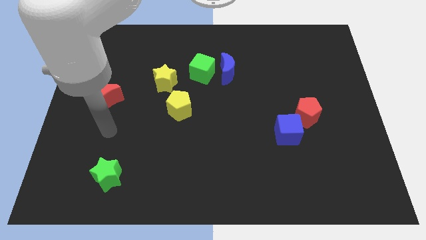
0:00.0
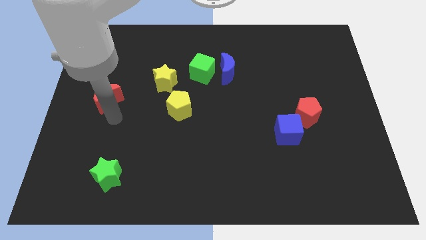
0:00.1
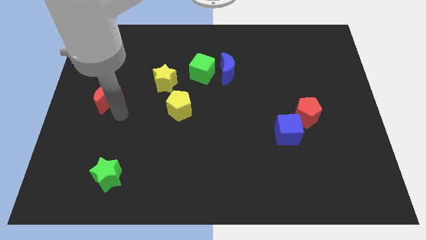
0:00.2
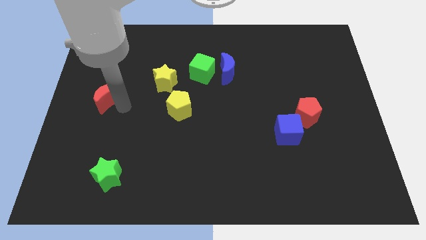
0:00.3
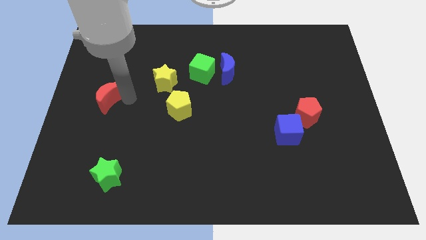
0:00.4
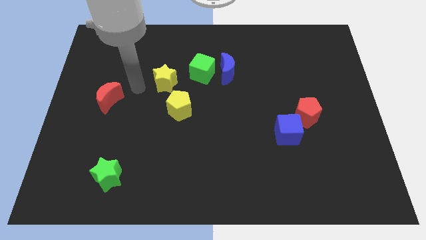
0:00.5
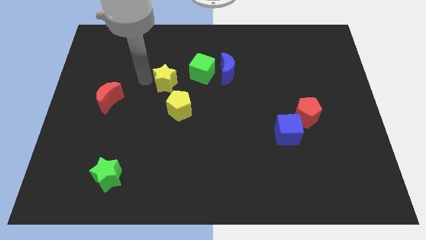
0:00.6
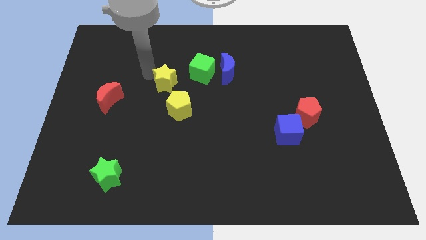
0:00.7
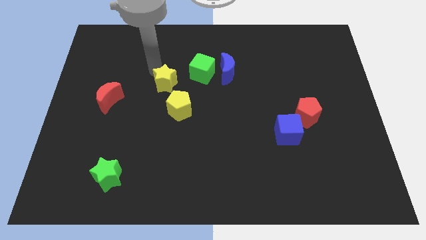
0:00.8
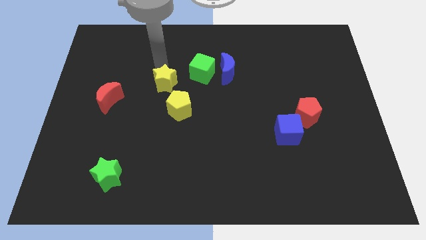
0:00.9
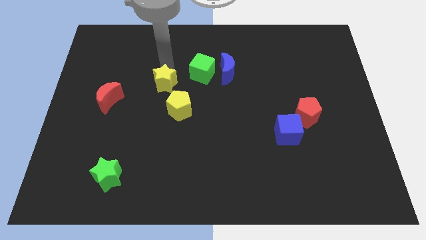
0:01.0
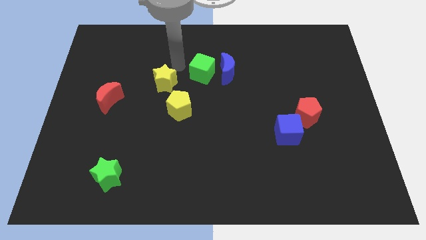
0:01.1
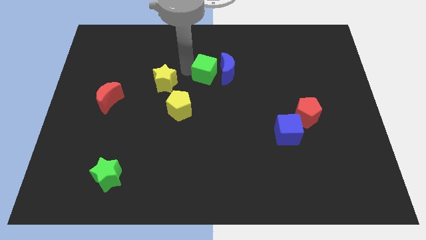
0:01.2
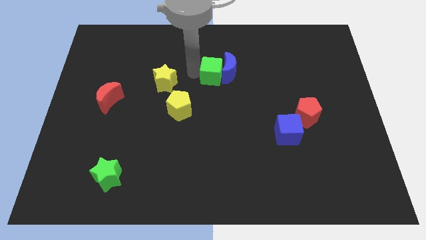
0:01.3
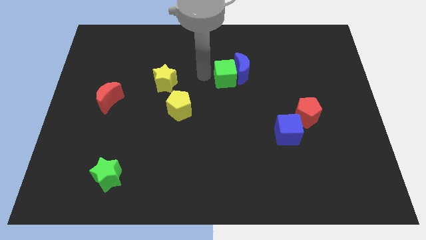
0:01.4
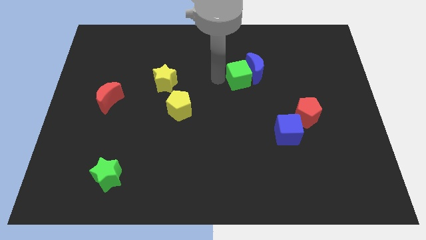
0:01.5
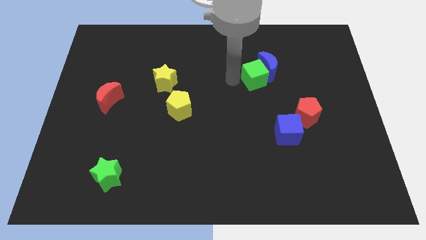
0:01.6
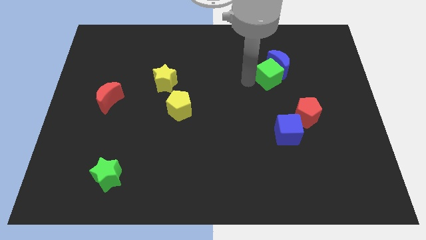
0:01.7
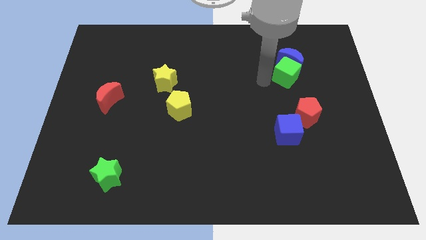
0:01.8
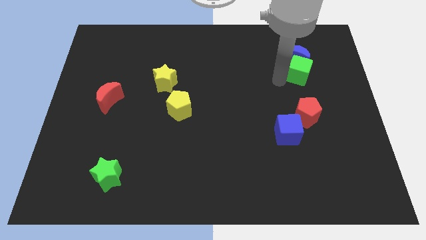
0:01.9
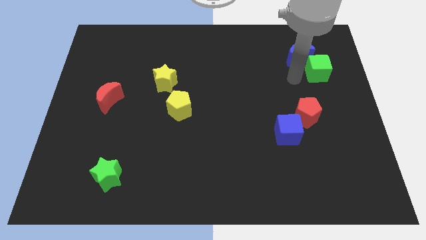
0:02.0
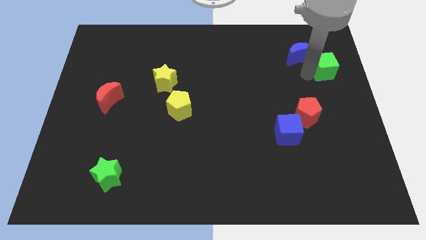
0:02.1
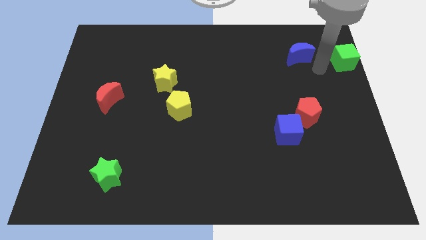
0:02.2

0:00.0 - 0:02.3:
separate the blue moon from the green cube

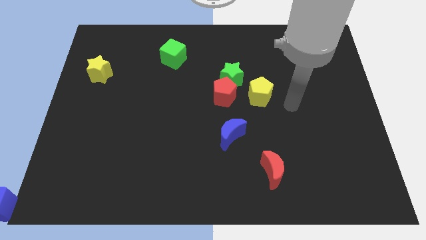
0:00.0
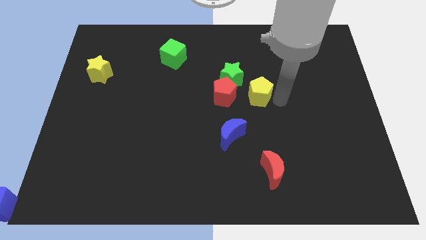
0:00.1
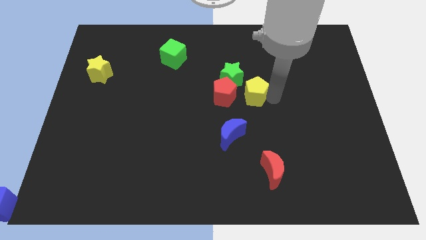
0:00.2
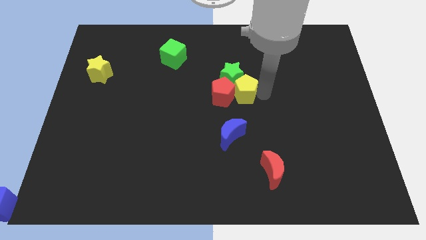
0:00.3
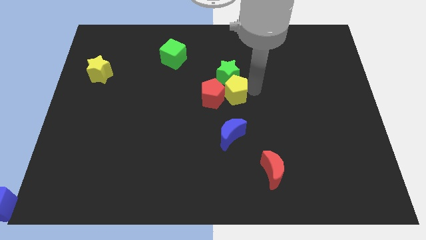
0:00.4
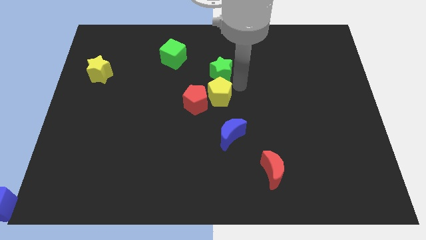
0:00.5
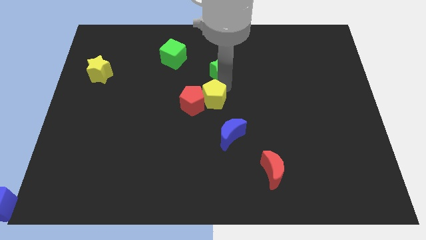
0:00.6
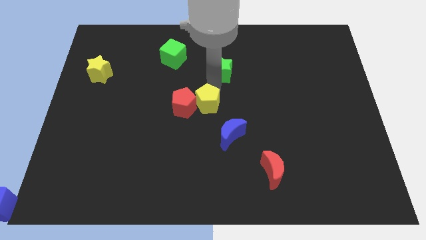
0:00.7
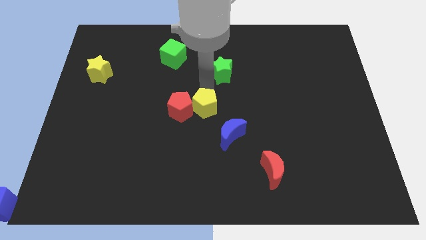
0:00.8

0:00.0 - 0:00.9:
pull the red pentagon apart from the green star and yellow pentagon

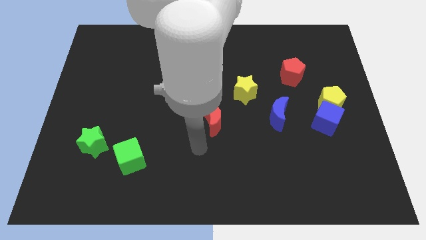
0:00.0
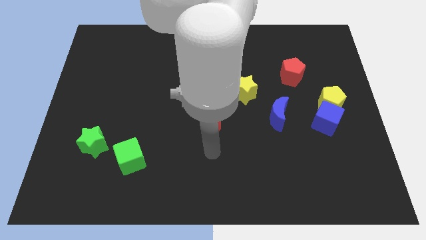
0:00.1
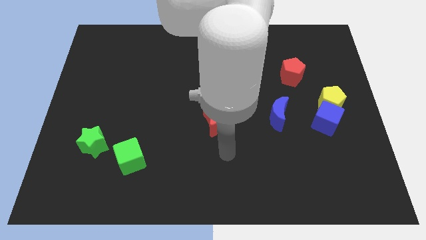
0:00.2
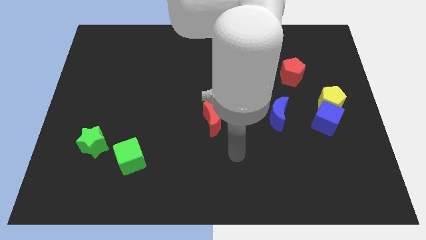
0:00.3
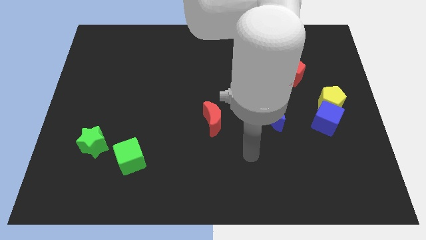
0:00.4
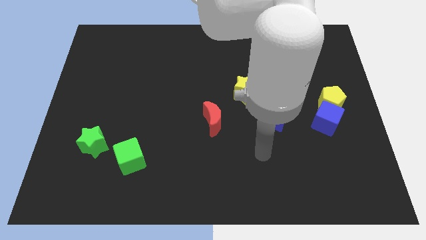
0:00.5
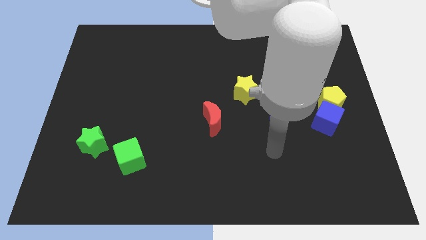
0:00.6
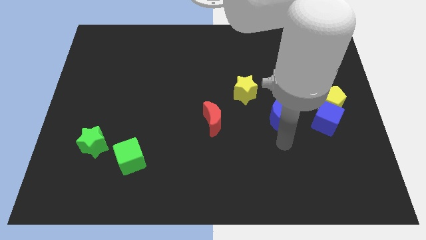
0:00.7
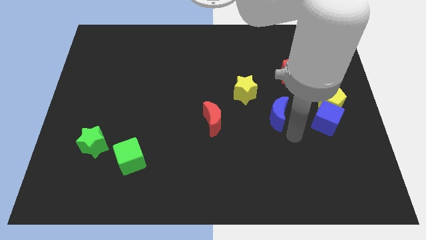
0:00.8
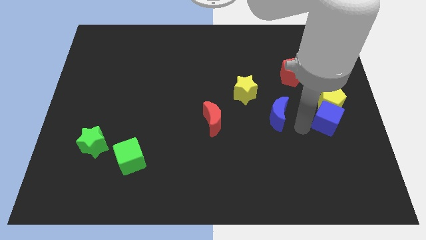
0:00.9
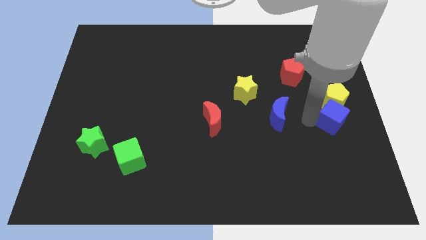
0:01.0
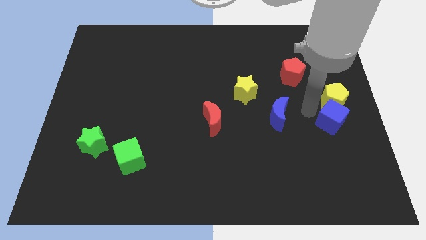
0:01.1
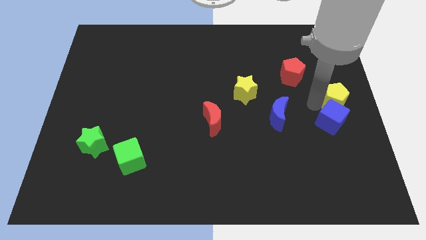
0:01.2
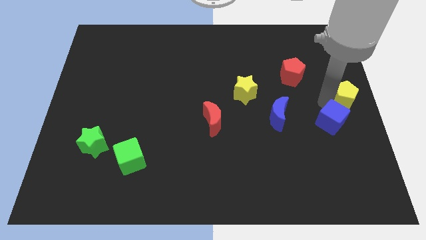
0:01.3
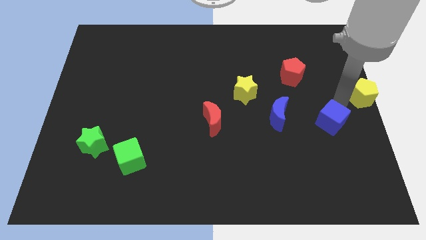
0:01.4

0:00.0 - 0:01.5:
move the blue cube away from the yellow pentagon

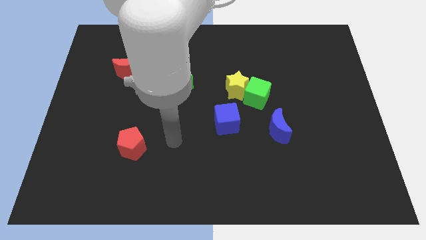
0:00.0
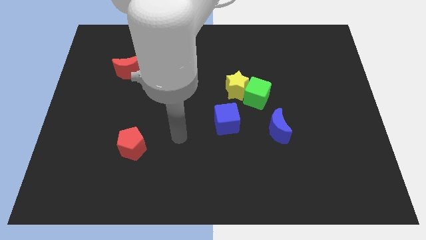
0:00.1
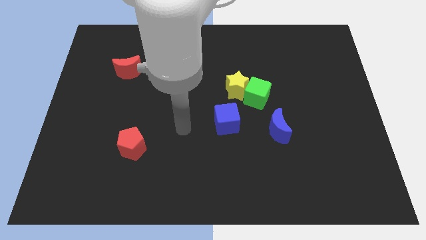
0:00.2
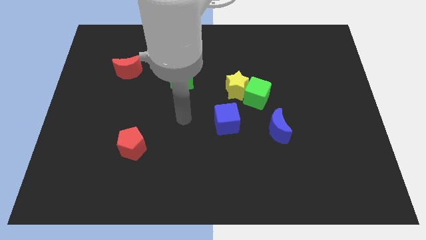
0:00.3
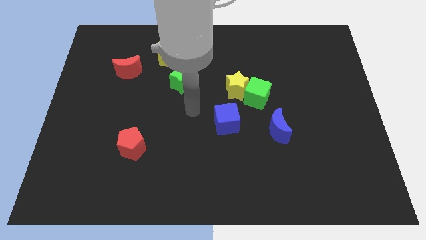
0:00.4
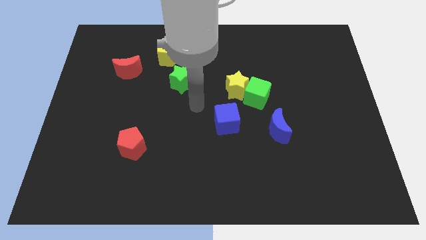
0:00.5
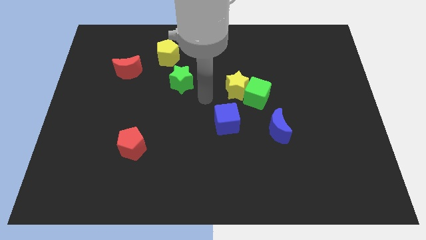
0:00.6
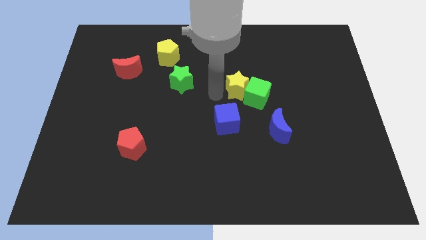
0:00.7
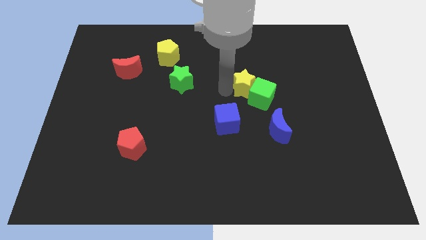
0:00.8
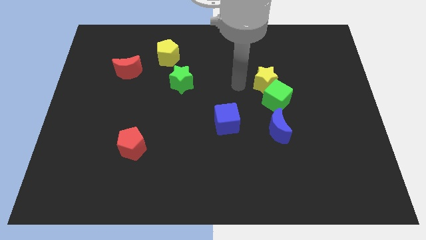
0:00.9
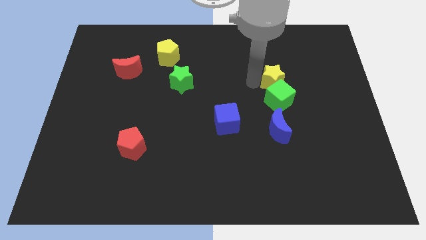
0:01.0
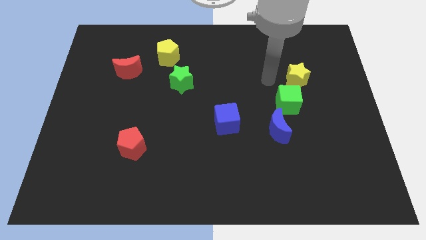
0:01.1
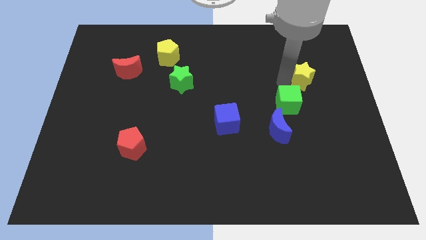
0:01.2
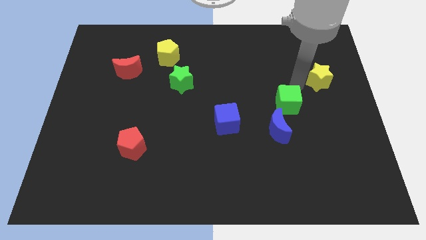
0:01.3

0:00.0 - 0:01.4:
move the green cube away from the yellow star

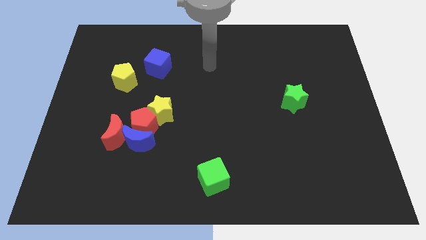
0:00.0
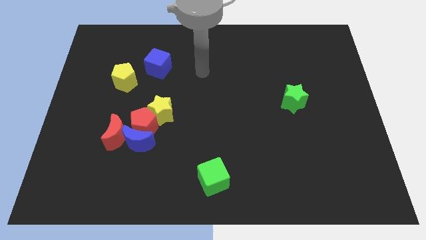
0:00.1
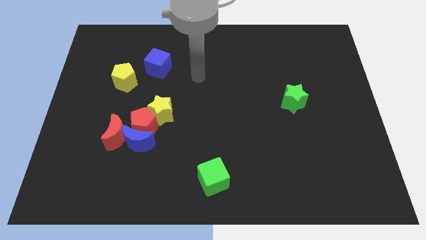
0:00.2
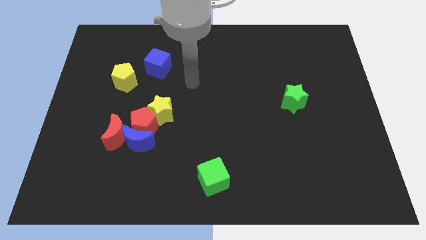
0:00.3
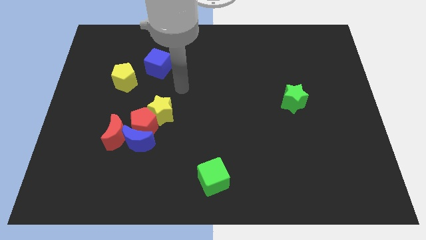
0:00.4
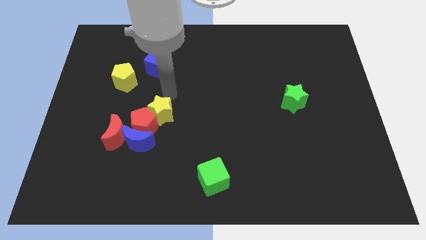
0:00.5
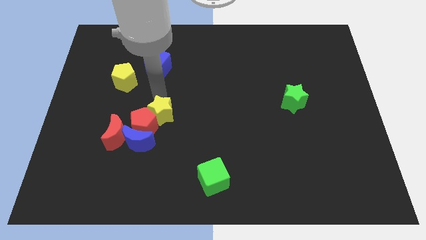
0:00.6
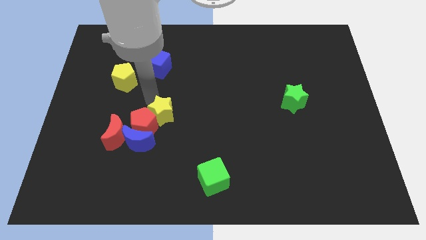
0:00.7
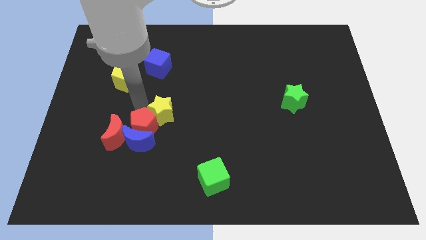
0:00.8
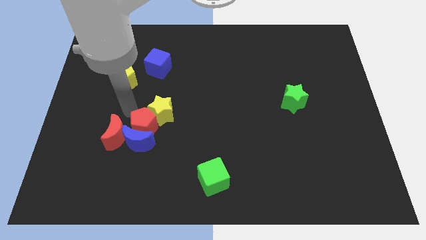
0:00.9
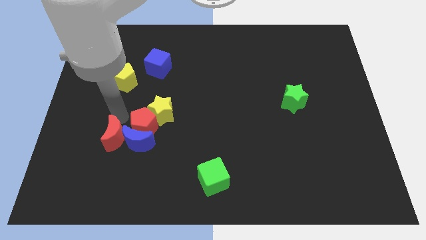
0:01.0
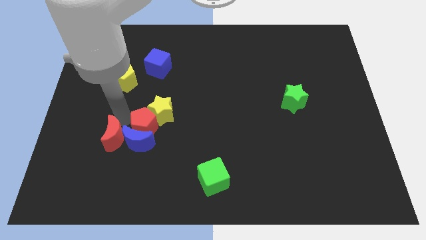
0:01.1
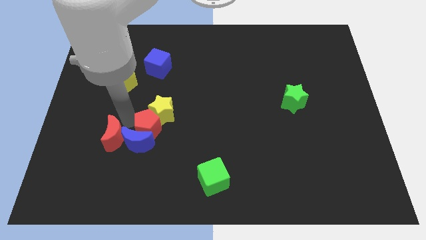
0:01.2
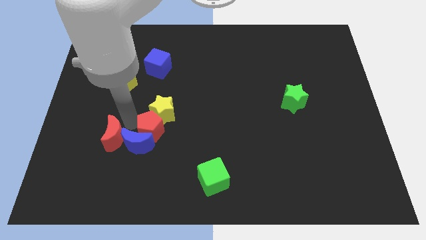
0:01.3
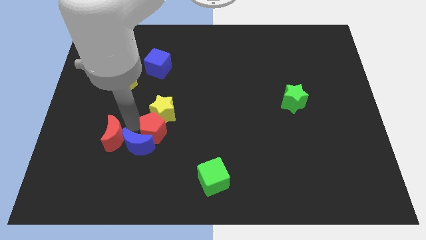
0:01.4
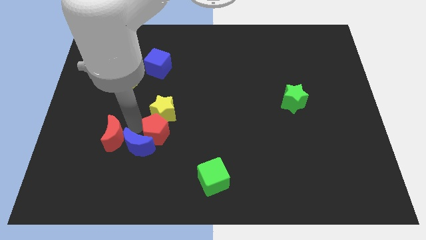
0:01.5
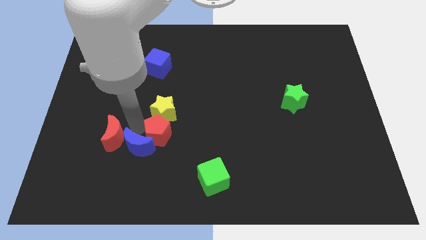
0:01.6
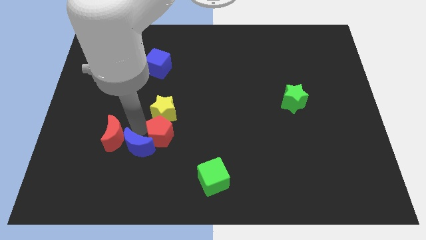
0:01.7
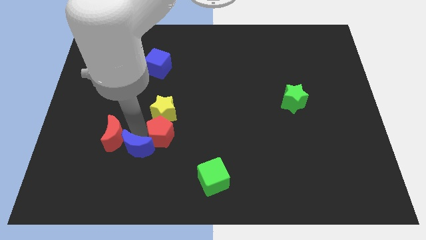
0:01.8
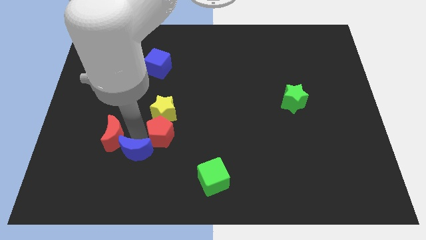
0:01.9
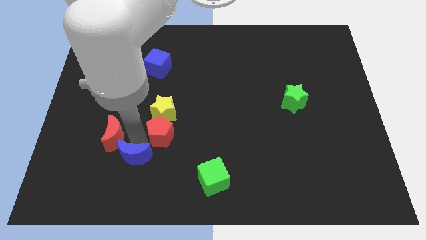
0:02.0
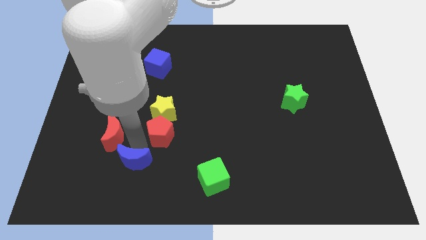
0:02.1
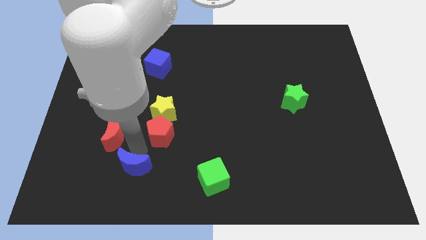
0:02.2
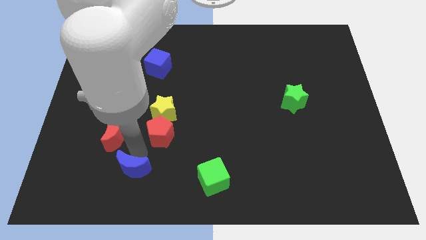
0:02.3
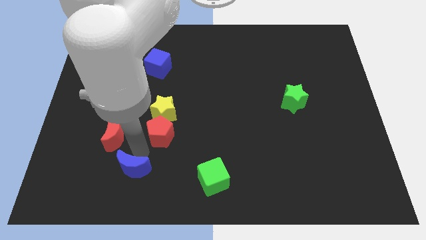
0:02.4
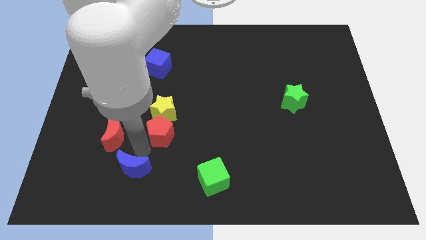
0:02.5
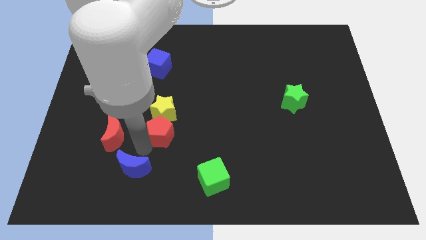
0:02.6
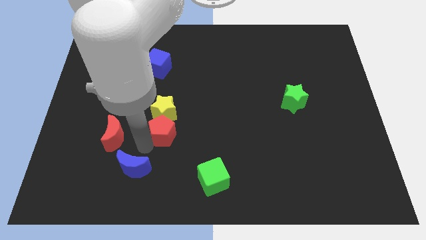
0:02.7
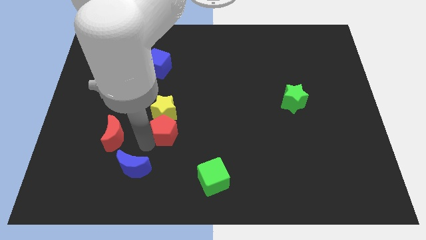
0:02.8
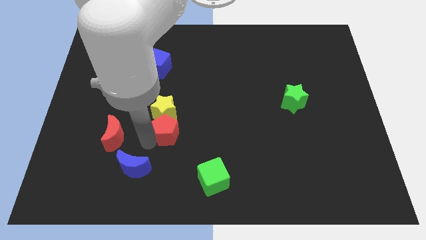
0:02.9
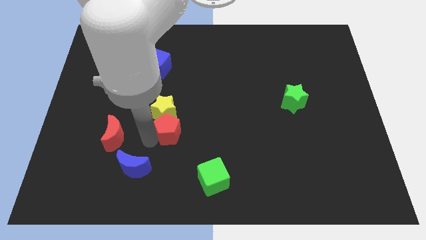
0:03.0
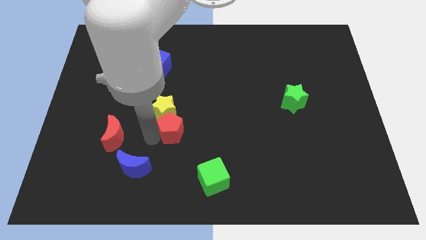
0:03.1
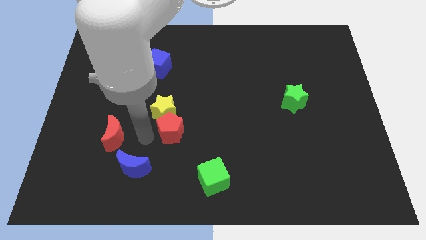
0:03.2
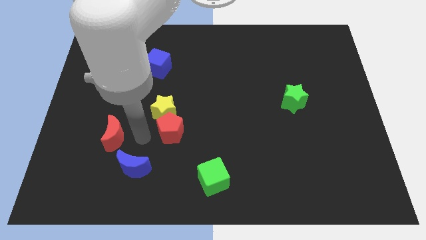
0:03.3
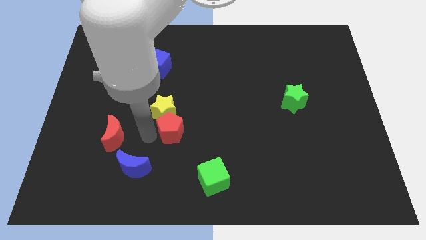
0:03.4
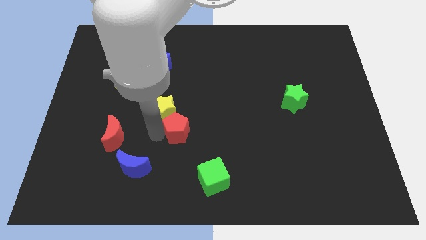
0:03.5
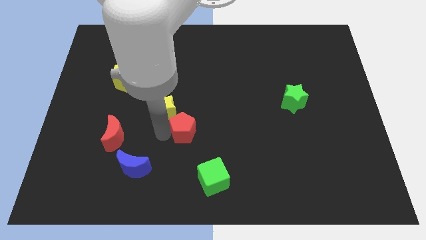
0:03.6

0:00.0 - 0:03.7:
move the red pentagon away from the group
